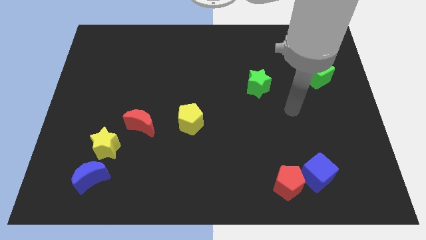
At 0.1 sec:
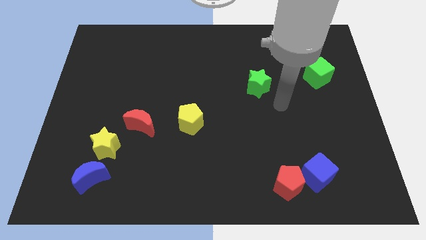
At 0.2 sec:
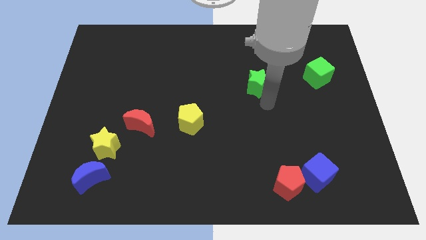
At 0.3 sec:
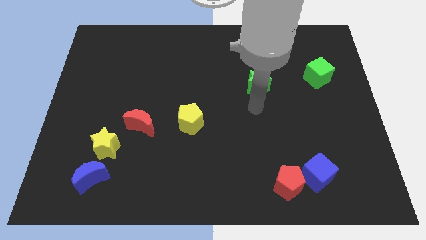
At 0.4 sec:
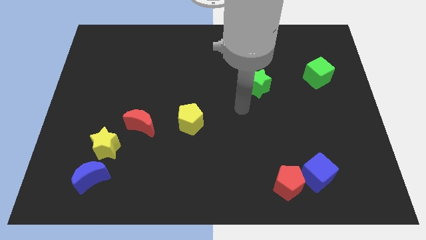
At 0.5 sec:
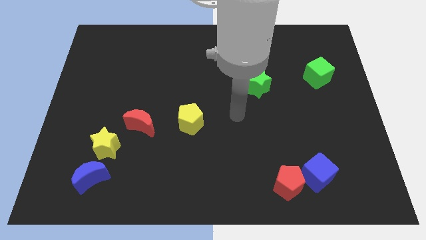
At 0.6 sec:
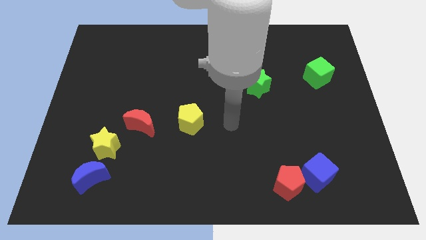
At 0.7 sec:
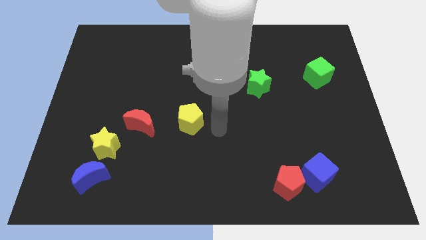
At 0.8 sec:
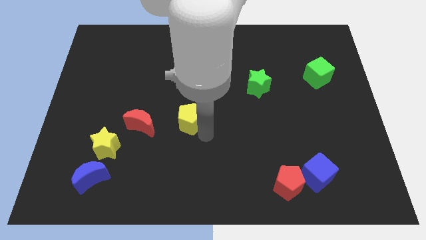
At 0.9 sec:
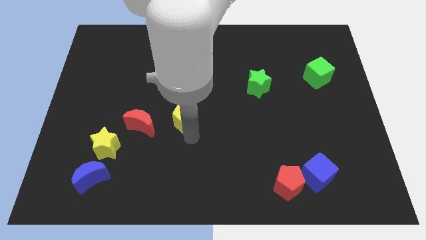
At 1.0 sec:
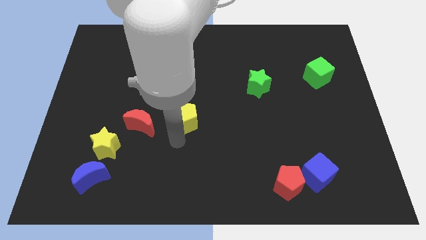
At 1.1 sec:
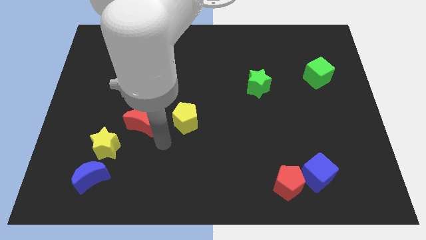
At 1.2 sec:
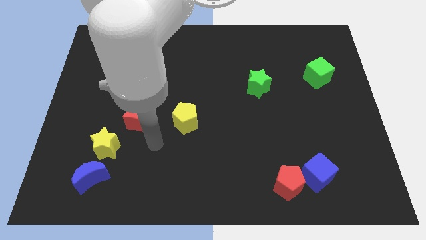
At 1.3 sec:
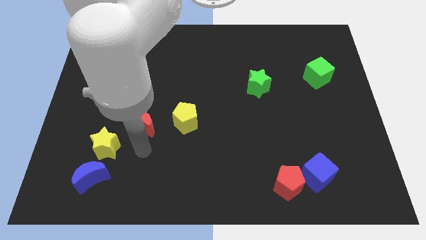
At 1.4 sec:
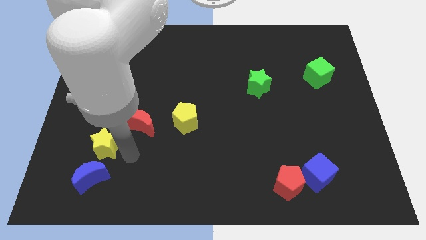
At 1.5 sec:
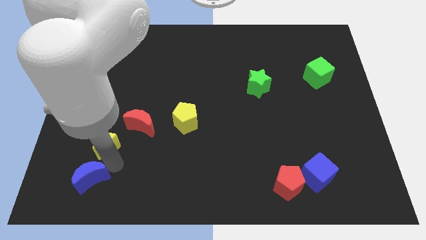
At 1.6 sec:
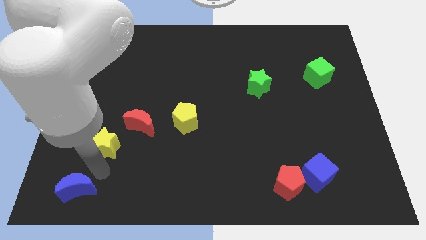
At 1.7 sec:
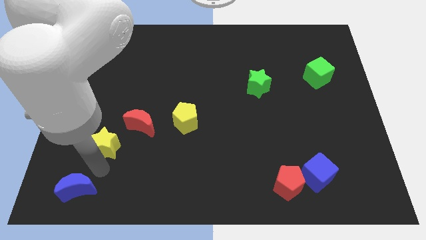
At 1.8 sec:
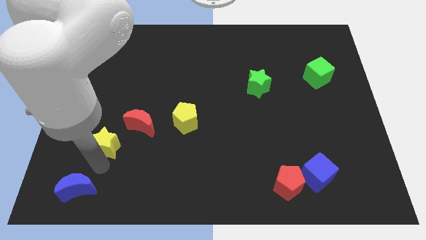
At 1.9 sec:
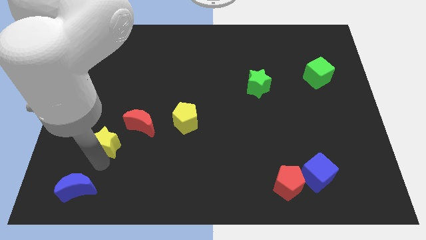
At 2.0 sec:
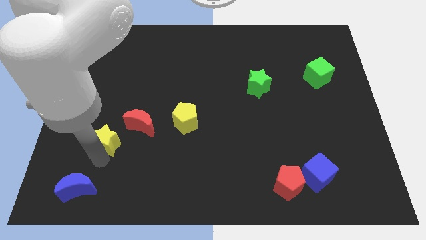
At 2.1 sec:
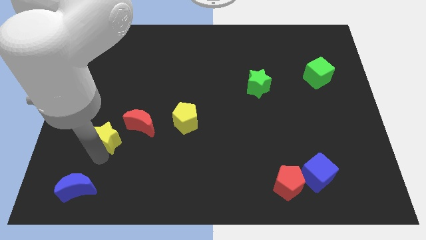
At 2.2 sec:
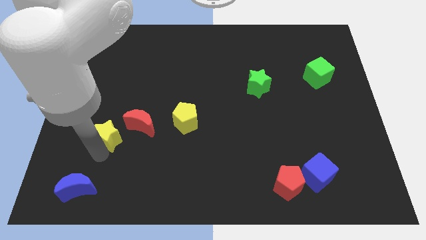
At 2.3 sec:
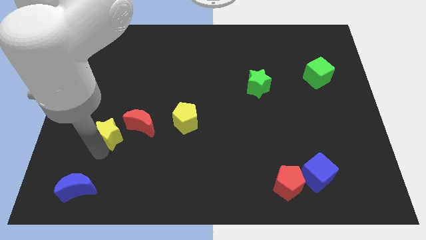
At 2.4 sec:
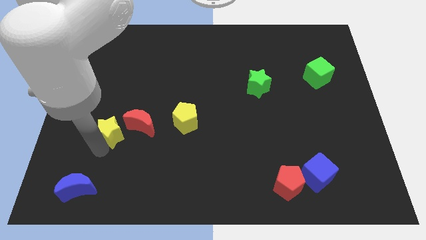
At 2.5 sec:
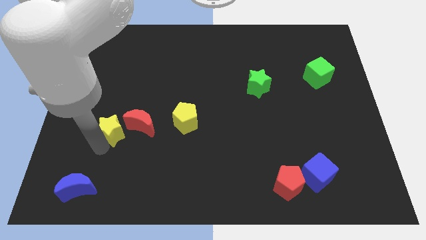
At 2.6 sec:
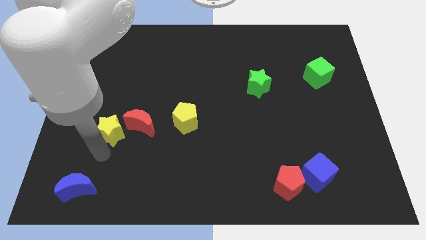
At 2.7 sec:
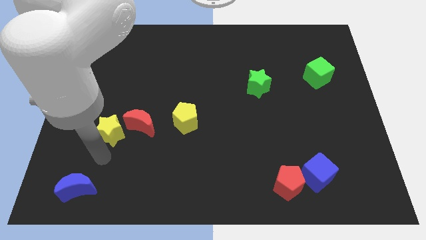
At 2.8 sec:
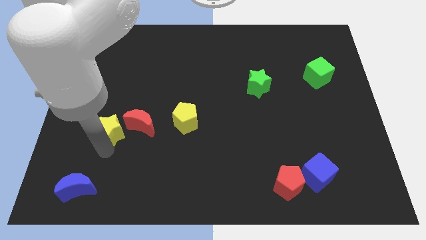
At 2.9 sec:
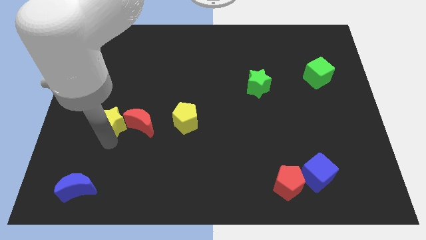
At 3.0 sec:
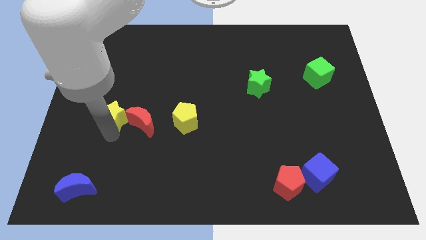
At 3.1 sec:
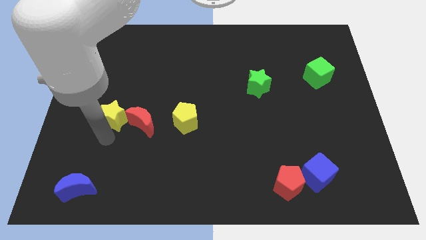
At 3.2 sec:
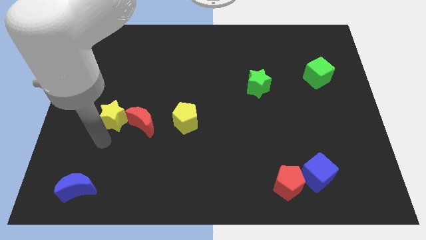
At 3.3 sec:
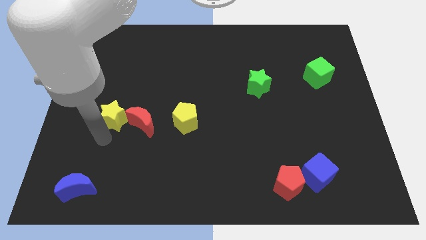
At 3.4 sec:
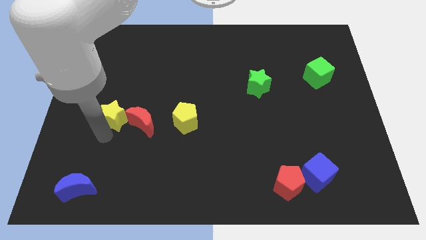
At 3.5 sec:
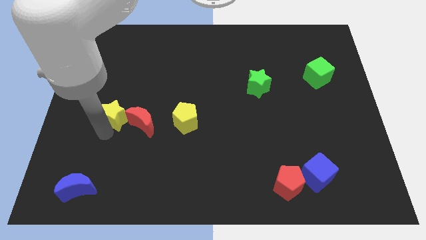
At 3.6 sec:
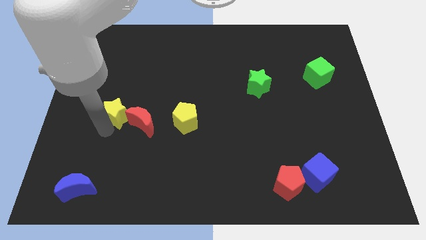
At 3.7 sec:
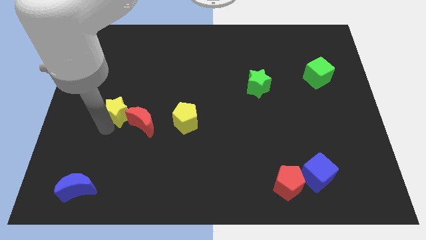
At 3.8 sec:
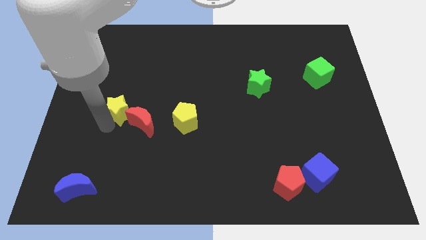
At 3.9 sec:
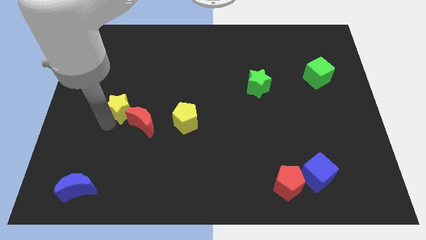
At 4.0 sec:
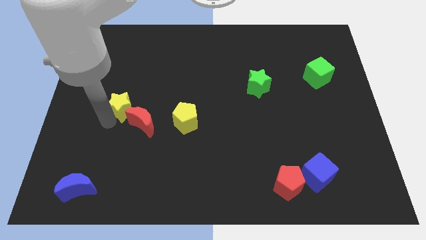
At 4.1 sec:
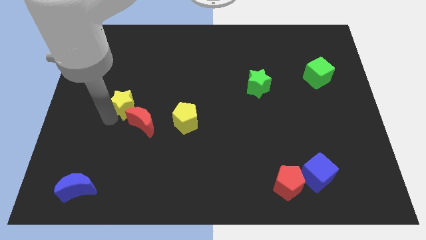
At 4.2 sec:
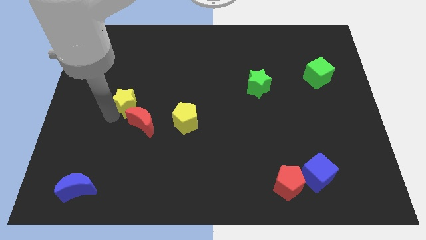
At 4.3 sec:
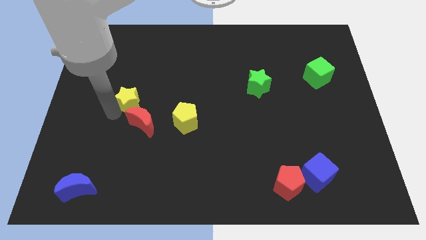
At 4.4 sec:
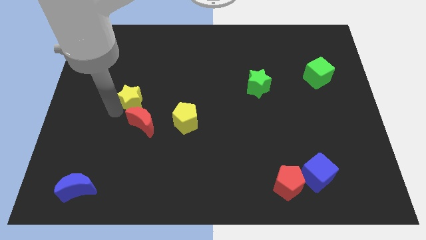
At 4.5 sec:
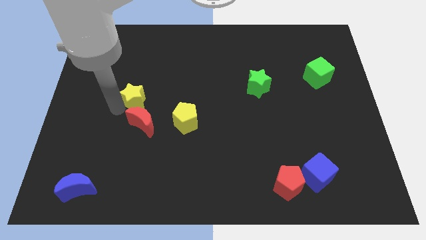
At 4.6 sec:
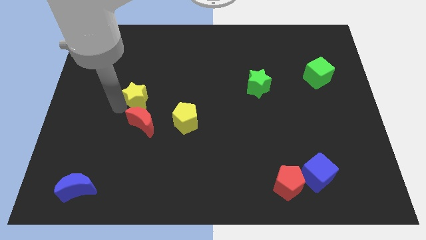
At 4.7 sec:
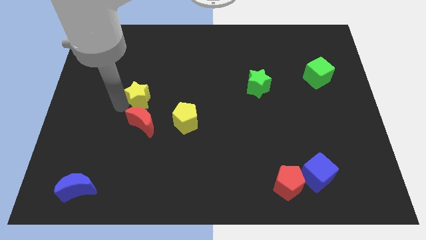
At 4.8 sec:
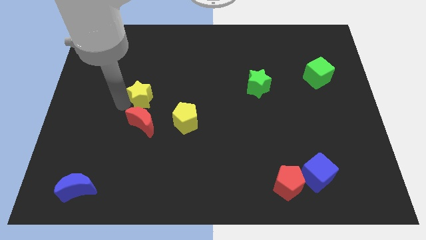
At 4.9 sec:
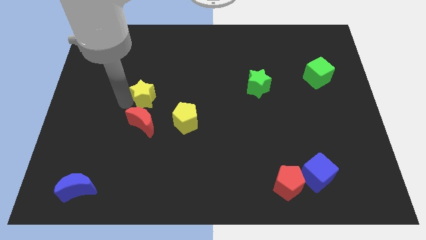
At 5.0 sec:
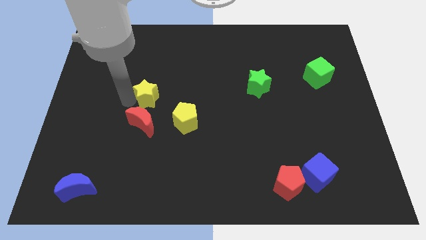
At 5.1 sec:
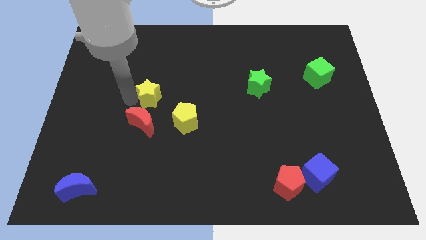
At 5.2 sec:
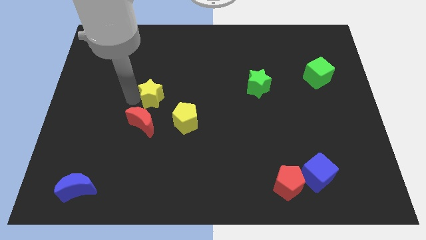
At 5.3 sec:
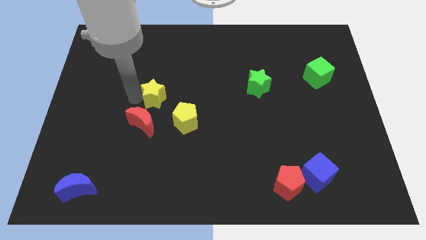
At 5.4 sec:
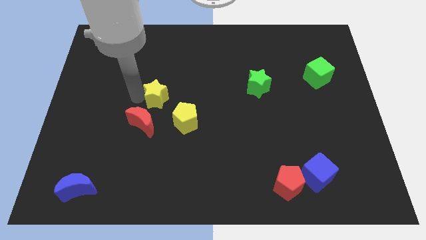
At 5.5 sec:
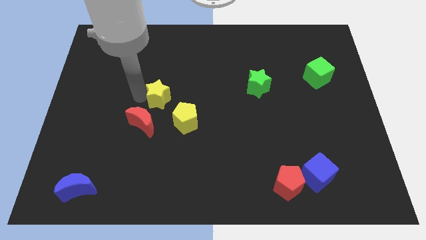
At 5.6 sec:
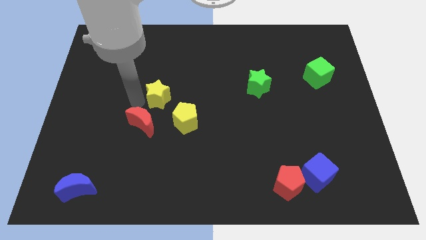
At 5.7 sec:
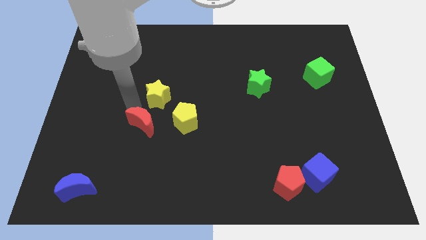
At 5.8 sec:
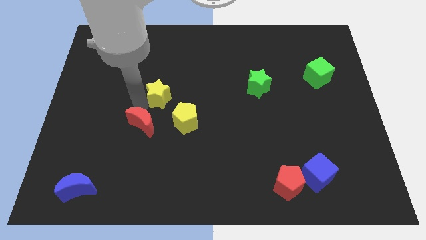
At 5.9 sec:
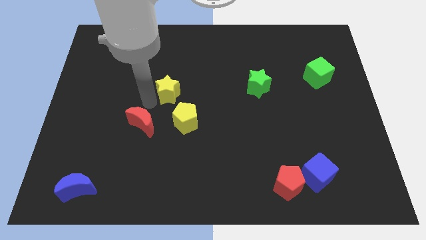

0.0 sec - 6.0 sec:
put the yellow star above the yellow pentagon
